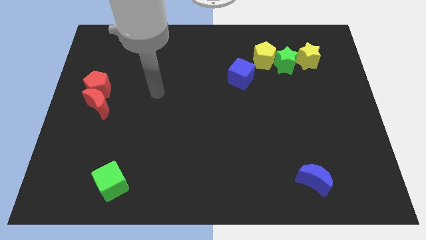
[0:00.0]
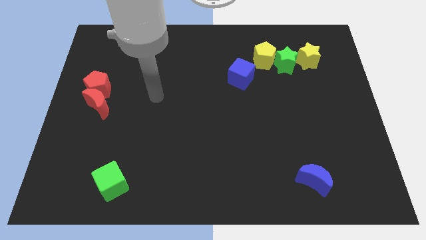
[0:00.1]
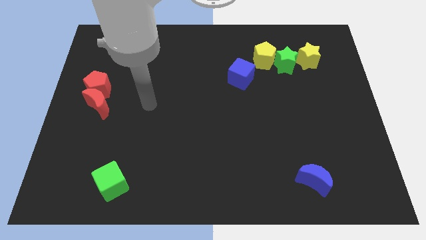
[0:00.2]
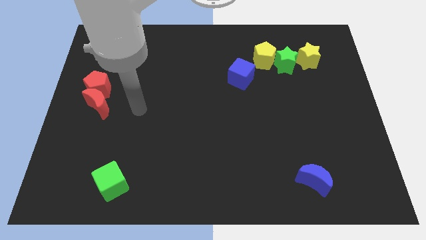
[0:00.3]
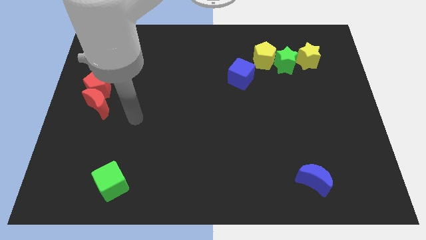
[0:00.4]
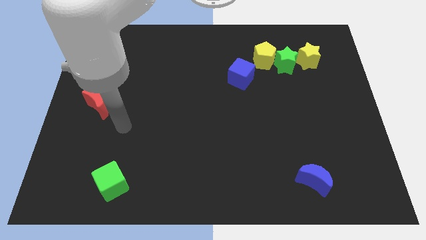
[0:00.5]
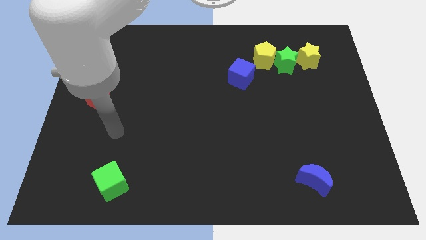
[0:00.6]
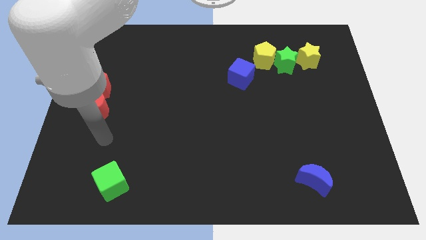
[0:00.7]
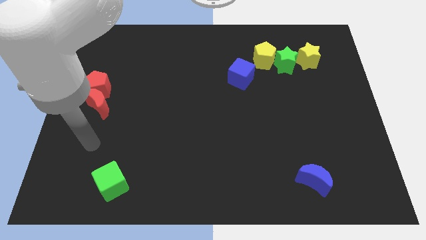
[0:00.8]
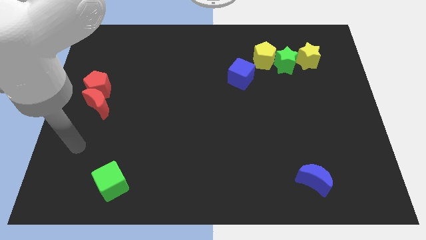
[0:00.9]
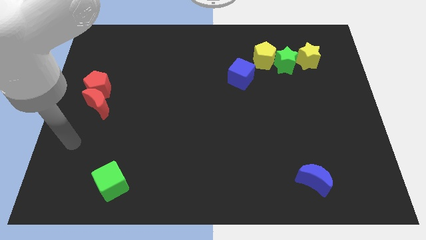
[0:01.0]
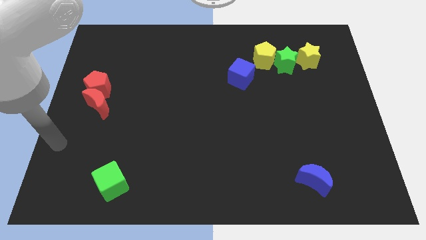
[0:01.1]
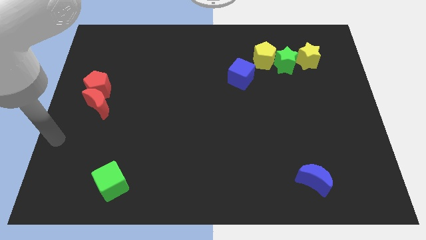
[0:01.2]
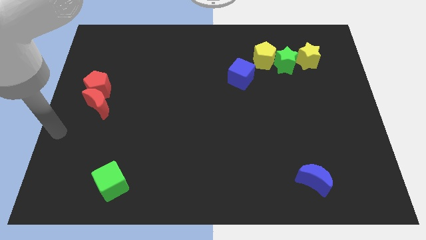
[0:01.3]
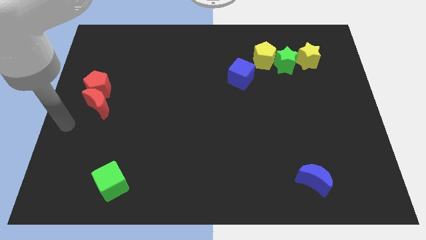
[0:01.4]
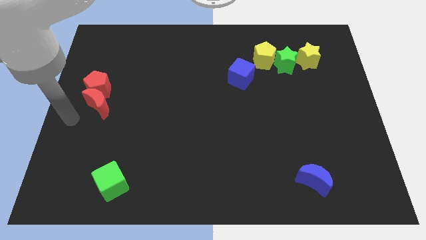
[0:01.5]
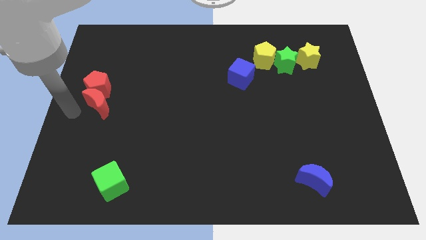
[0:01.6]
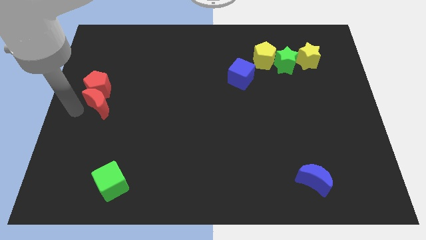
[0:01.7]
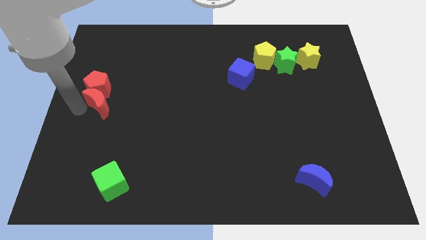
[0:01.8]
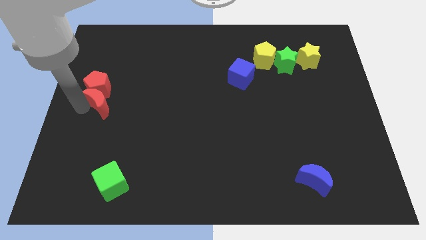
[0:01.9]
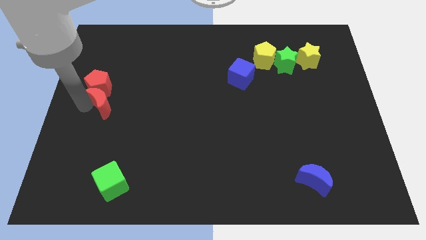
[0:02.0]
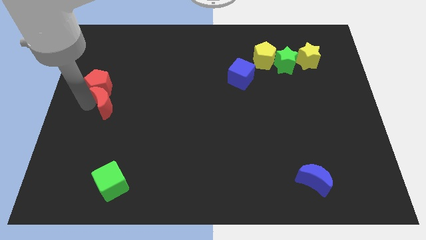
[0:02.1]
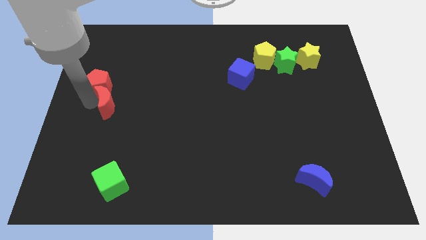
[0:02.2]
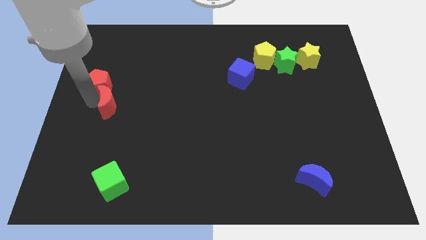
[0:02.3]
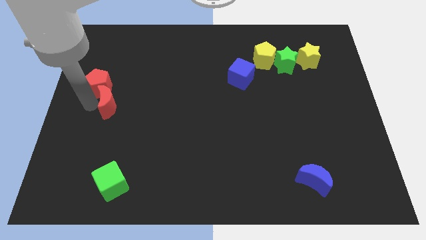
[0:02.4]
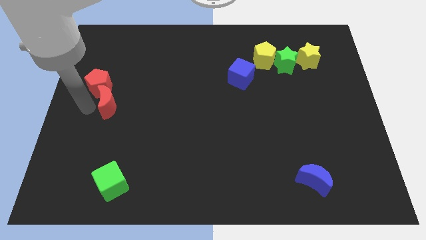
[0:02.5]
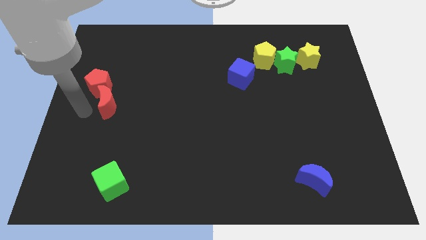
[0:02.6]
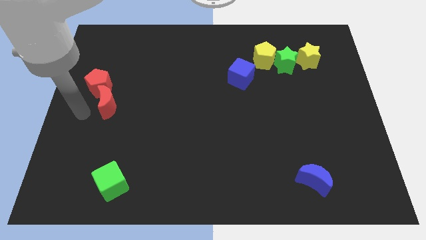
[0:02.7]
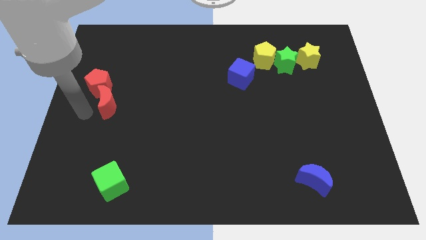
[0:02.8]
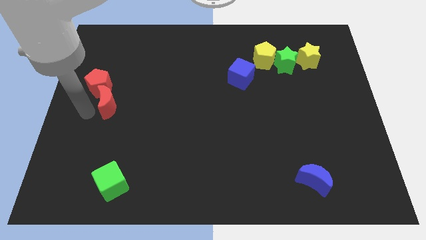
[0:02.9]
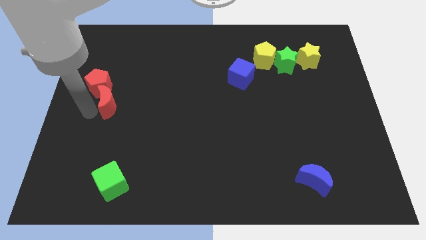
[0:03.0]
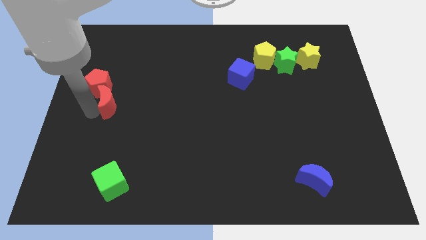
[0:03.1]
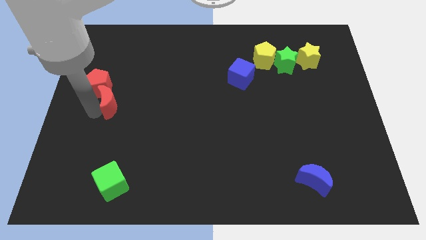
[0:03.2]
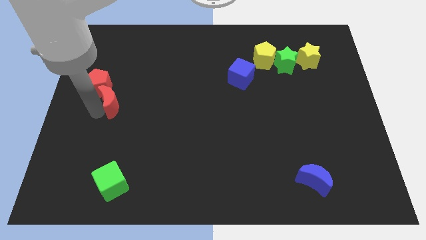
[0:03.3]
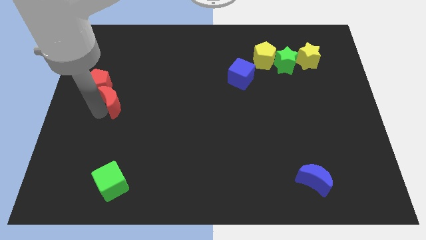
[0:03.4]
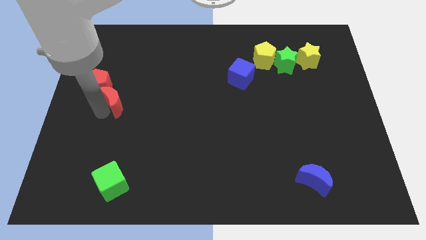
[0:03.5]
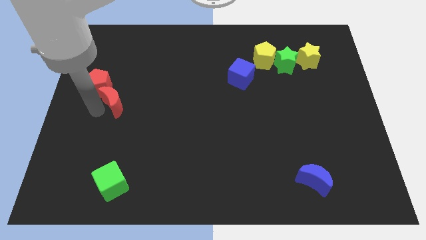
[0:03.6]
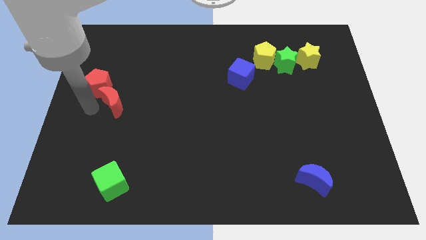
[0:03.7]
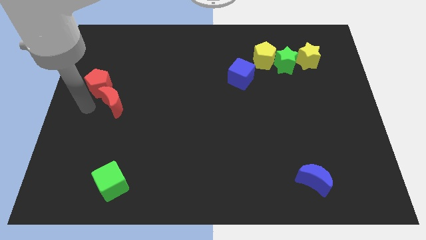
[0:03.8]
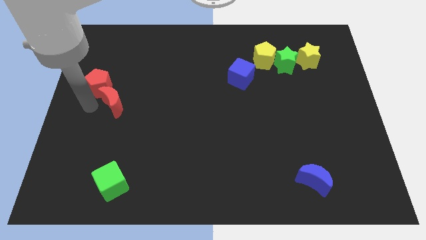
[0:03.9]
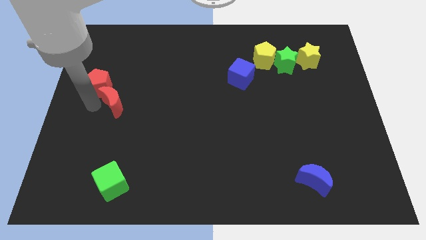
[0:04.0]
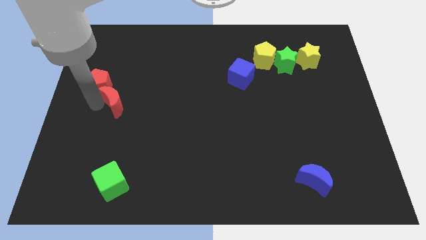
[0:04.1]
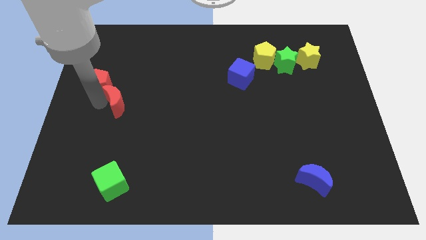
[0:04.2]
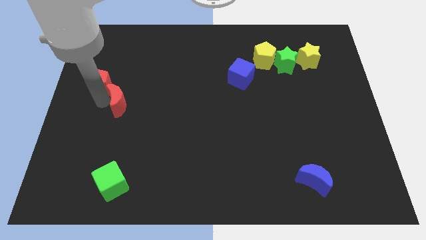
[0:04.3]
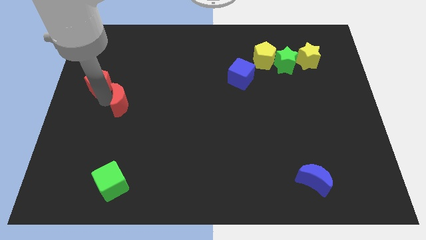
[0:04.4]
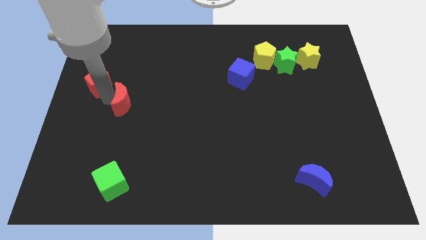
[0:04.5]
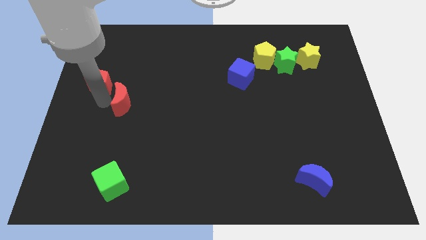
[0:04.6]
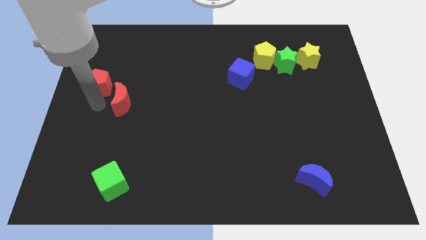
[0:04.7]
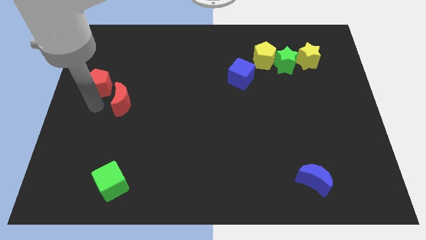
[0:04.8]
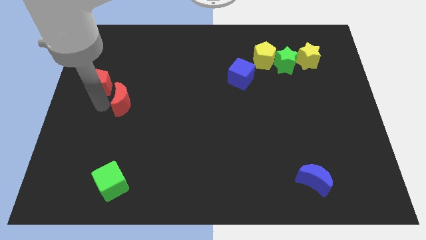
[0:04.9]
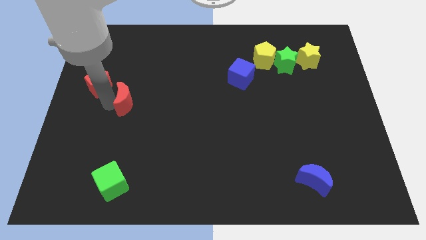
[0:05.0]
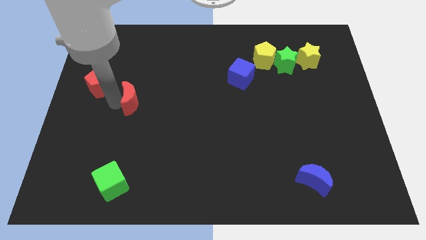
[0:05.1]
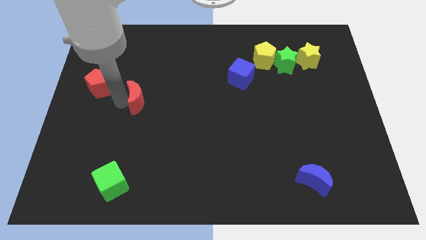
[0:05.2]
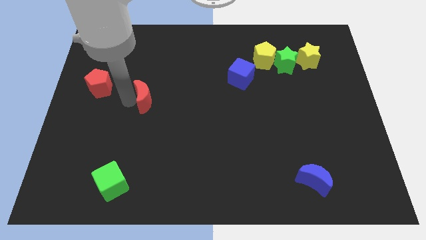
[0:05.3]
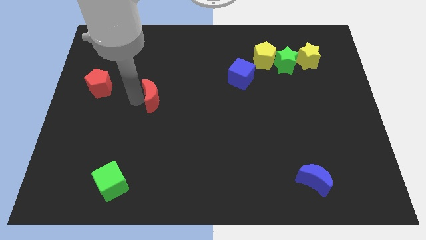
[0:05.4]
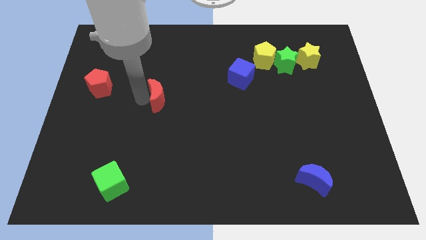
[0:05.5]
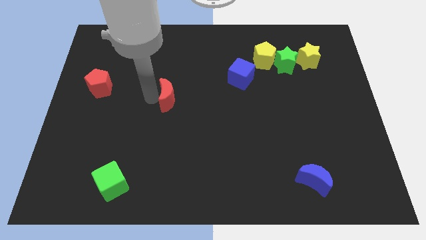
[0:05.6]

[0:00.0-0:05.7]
move the red moon to the center of the board

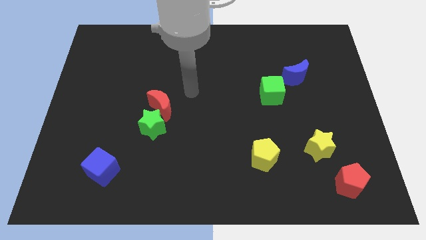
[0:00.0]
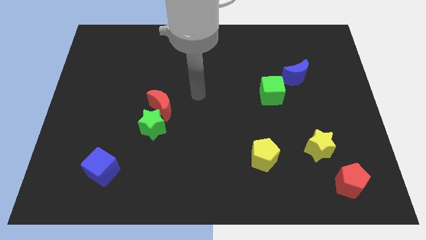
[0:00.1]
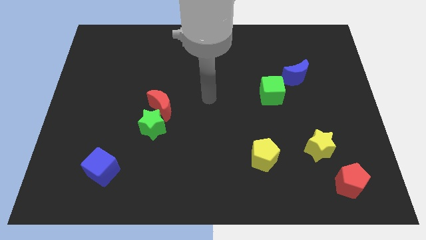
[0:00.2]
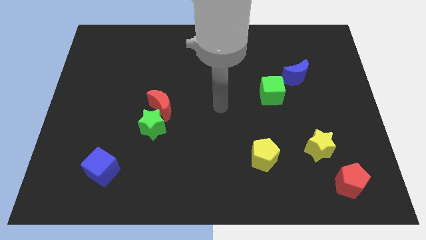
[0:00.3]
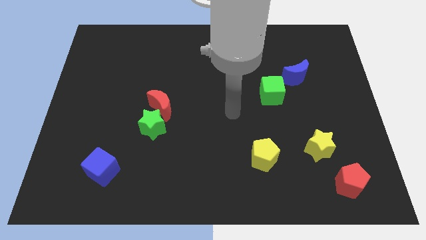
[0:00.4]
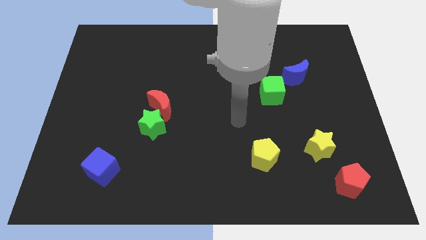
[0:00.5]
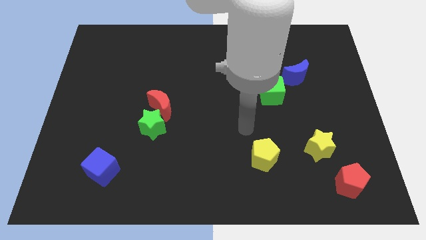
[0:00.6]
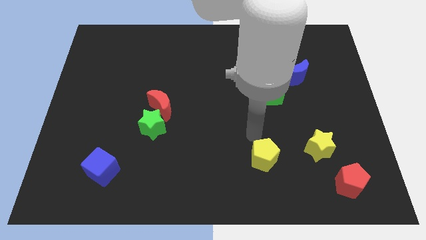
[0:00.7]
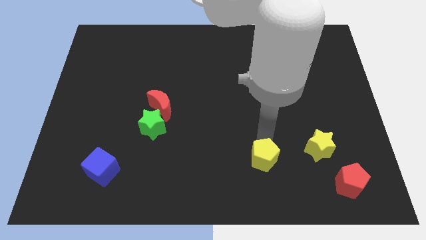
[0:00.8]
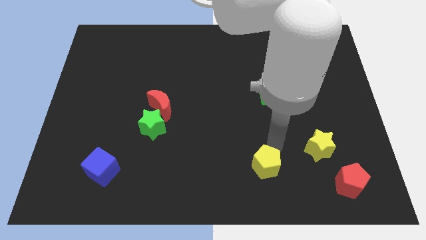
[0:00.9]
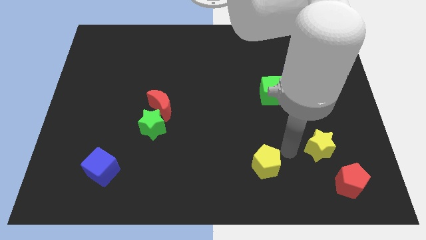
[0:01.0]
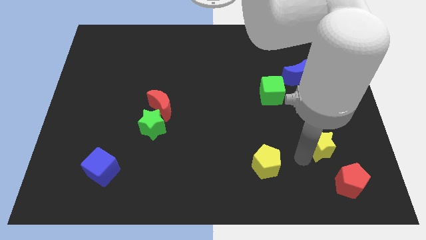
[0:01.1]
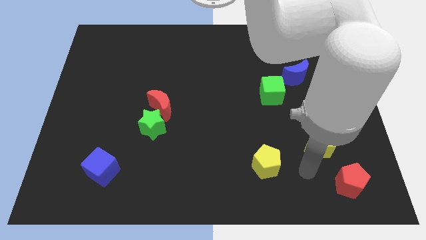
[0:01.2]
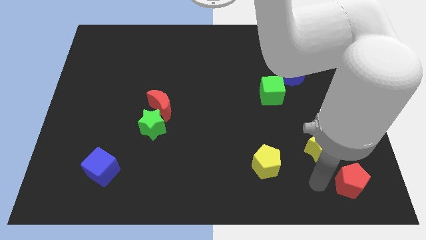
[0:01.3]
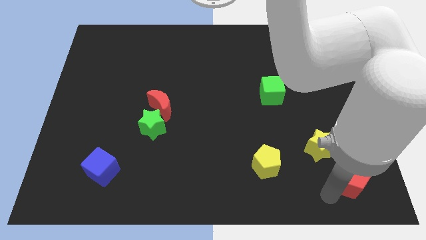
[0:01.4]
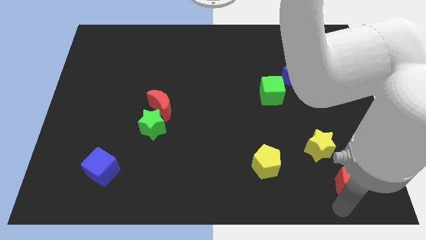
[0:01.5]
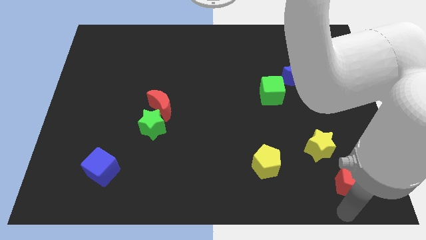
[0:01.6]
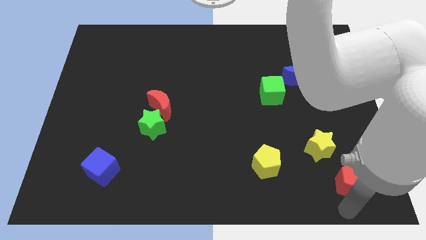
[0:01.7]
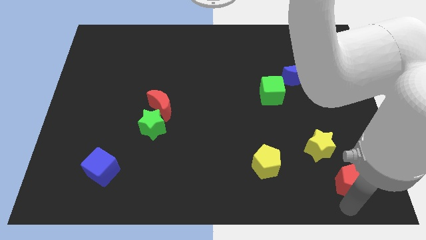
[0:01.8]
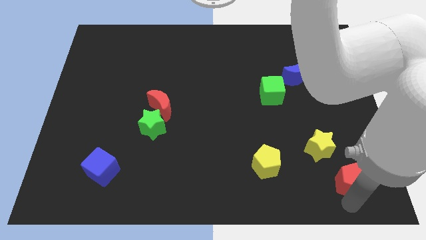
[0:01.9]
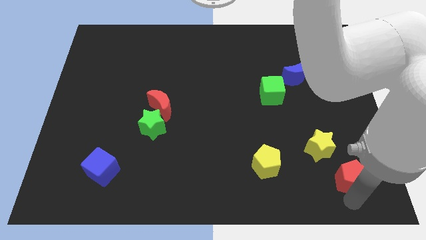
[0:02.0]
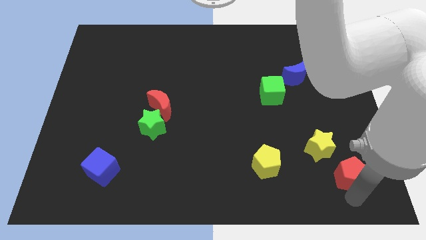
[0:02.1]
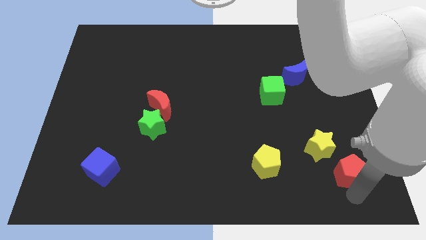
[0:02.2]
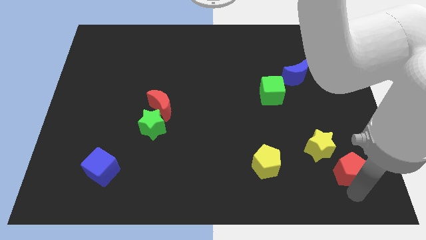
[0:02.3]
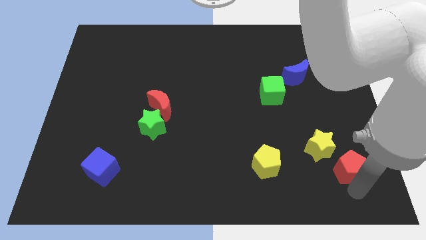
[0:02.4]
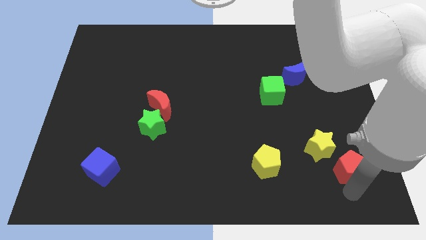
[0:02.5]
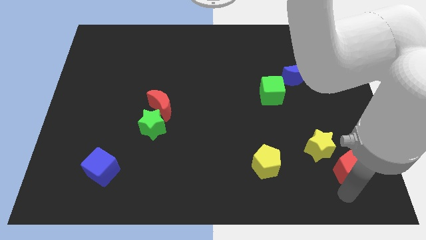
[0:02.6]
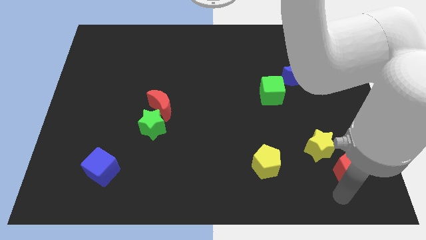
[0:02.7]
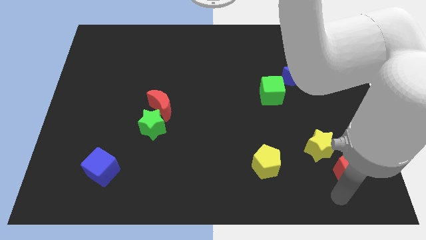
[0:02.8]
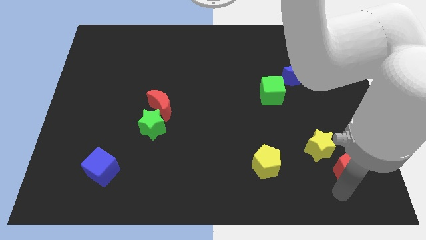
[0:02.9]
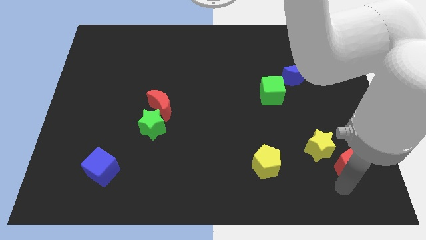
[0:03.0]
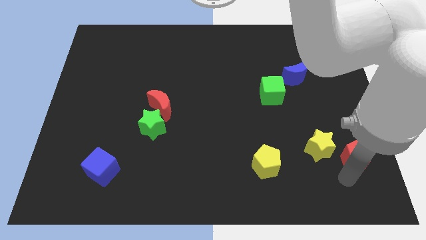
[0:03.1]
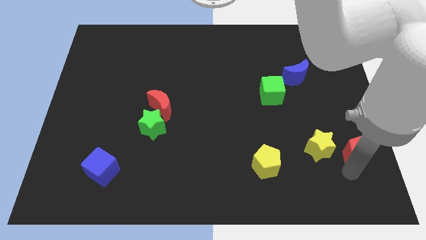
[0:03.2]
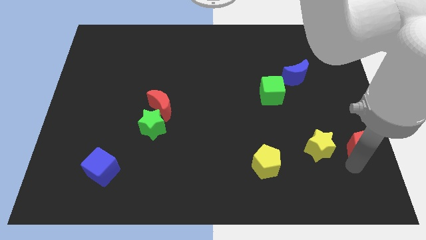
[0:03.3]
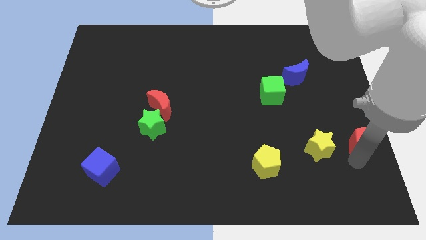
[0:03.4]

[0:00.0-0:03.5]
move the red pentagon to the center right
